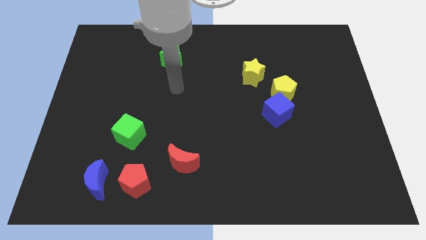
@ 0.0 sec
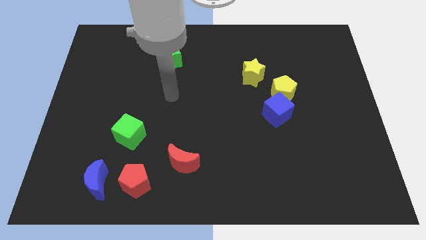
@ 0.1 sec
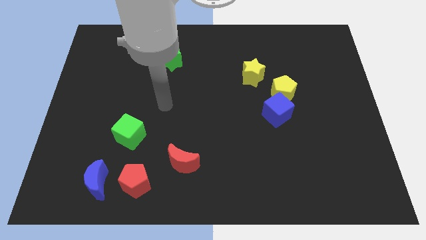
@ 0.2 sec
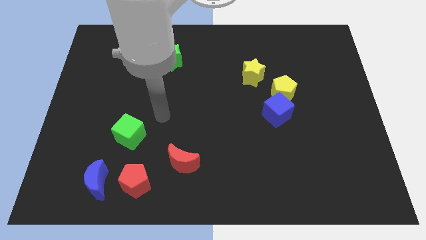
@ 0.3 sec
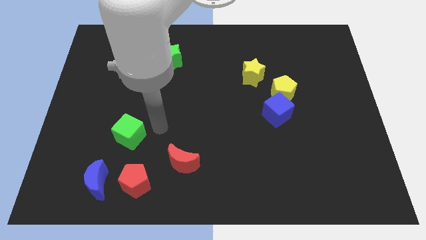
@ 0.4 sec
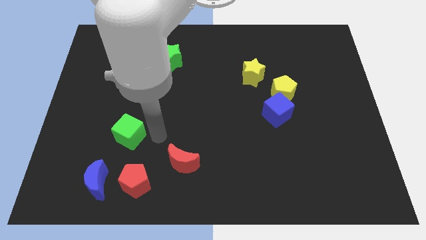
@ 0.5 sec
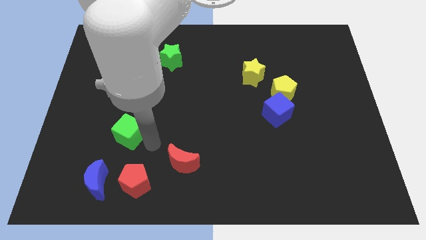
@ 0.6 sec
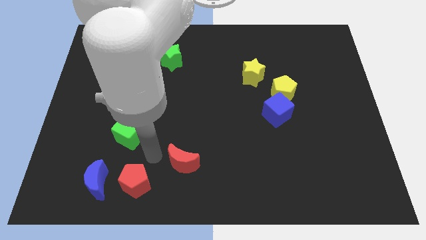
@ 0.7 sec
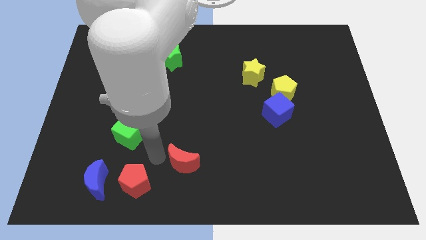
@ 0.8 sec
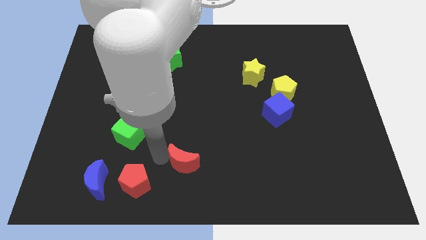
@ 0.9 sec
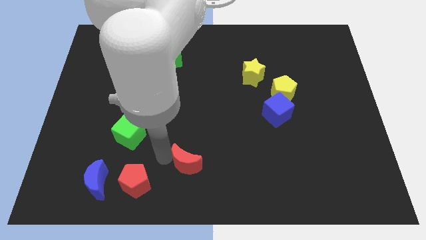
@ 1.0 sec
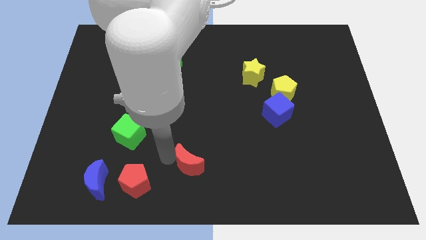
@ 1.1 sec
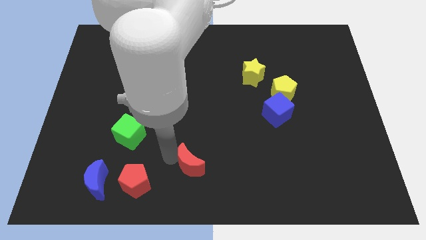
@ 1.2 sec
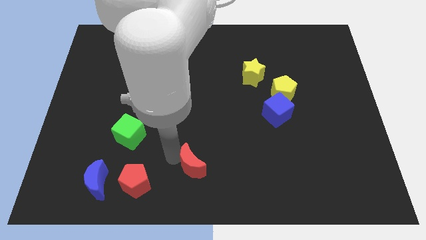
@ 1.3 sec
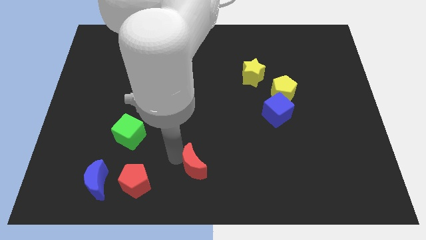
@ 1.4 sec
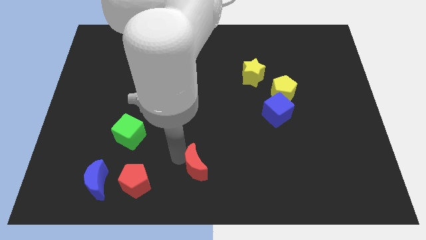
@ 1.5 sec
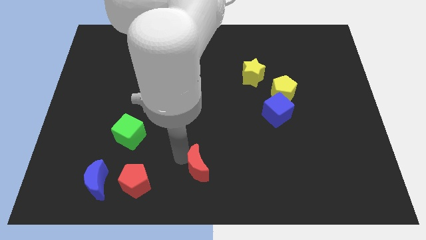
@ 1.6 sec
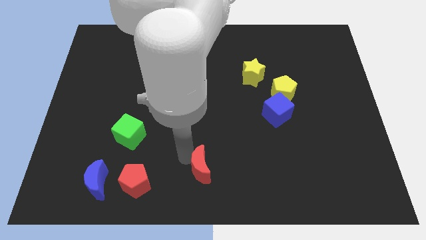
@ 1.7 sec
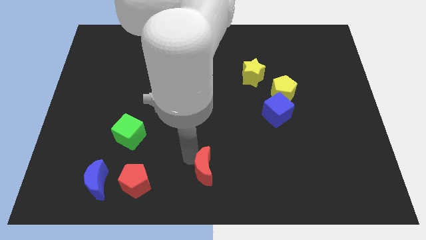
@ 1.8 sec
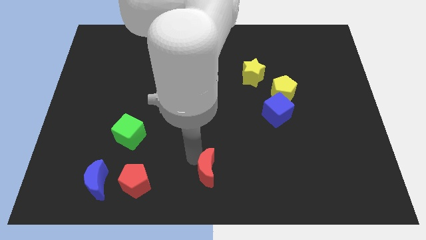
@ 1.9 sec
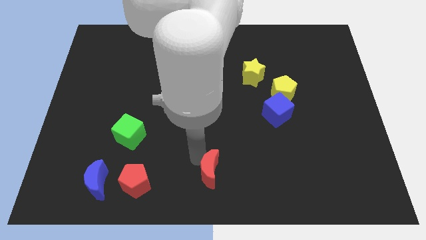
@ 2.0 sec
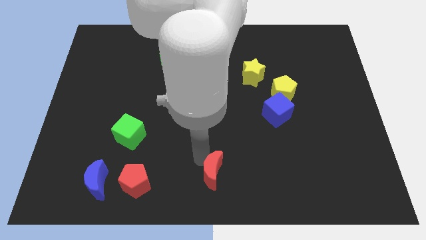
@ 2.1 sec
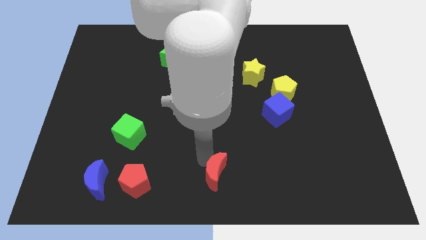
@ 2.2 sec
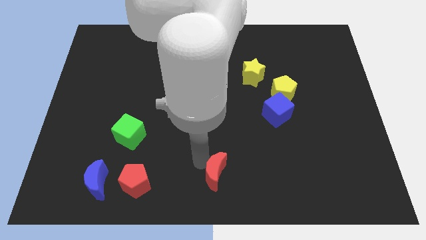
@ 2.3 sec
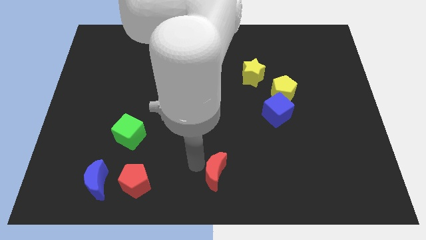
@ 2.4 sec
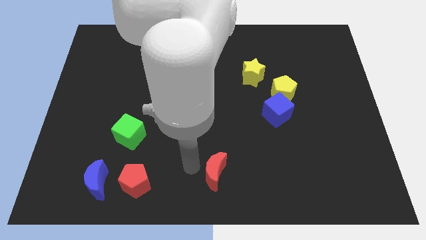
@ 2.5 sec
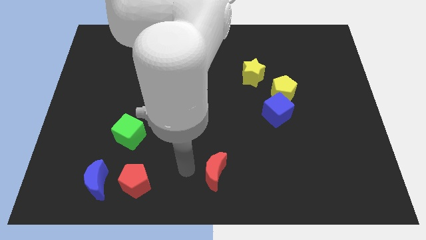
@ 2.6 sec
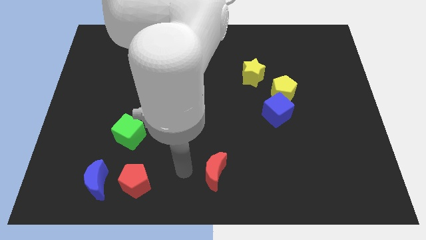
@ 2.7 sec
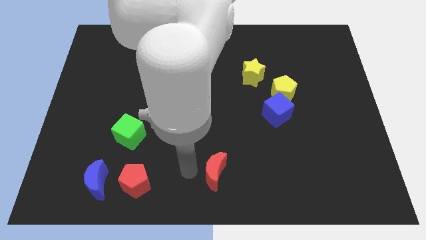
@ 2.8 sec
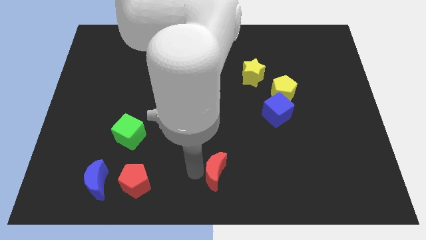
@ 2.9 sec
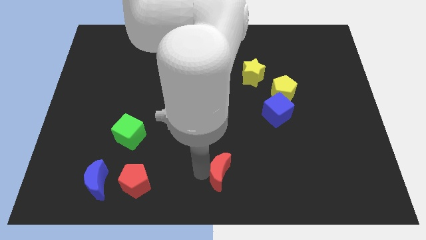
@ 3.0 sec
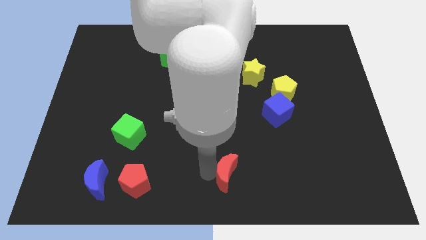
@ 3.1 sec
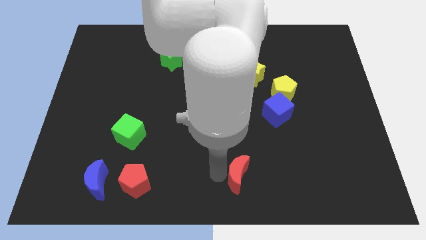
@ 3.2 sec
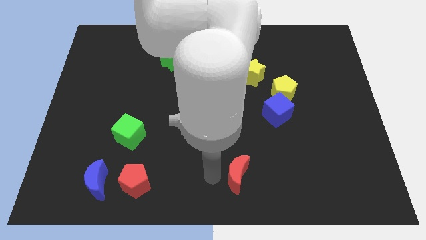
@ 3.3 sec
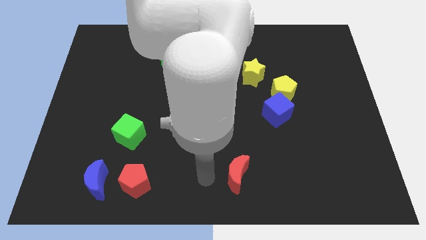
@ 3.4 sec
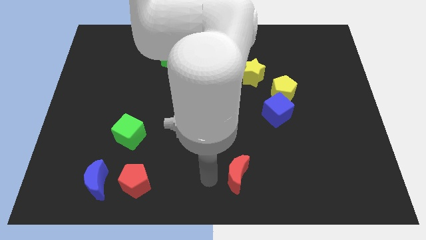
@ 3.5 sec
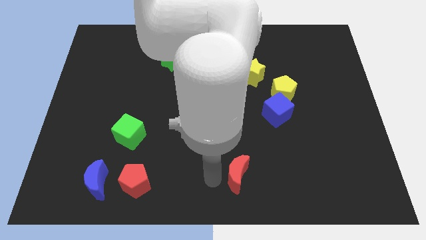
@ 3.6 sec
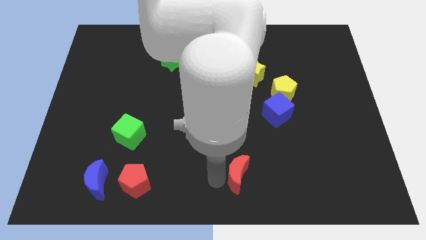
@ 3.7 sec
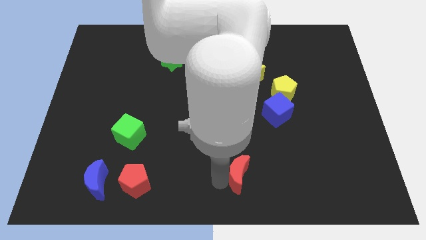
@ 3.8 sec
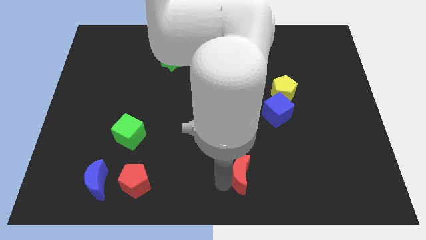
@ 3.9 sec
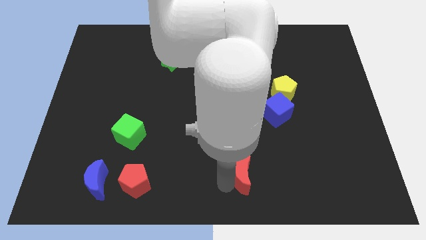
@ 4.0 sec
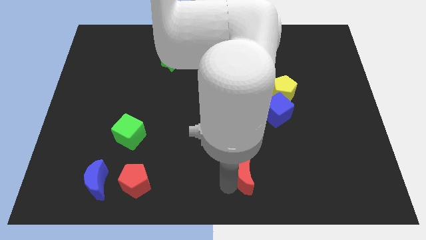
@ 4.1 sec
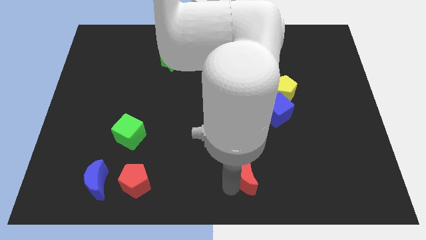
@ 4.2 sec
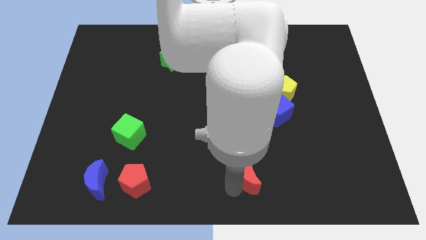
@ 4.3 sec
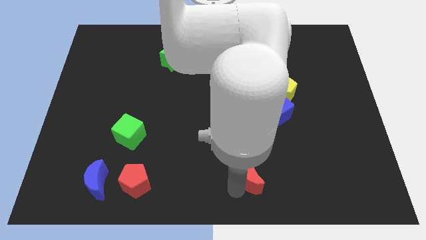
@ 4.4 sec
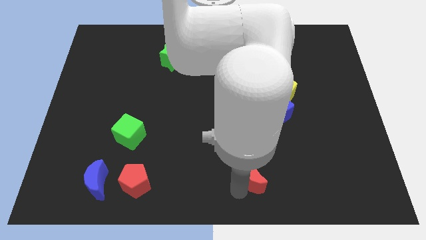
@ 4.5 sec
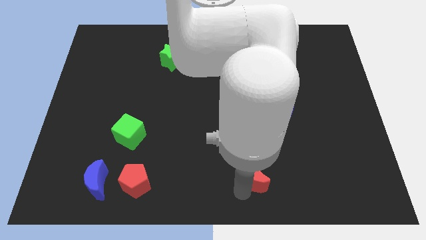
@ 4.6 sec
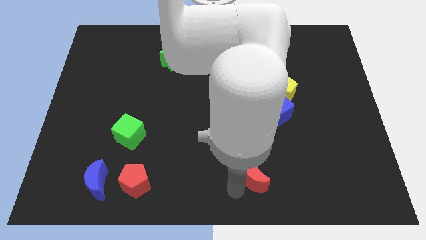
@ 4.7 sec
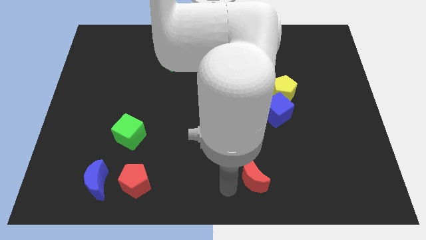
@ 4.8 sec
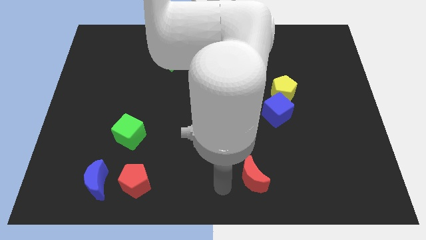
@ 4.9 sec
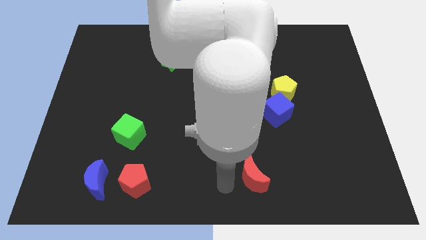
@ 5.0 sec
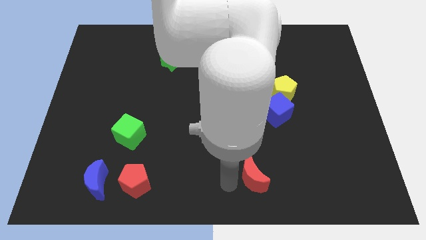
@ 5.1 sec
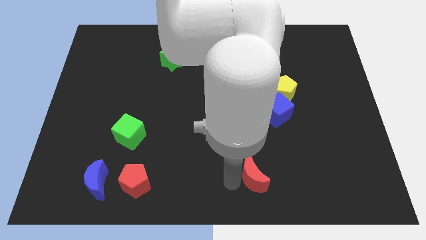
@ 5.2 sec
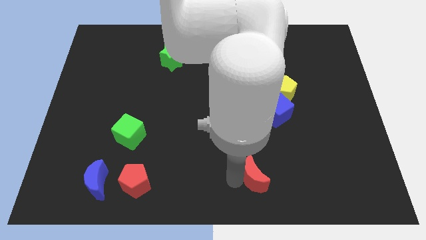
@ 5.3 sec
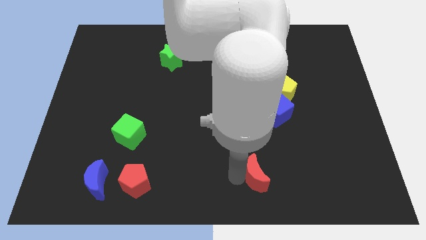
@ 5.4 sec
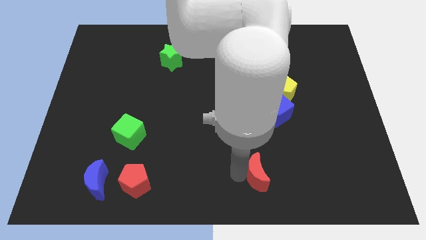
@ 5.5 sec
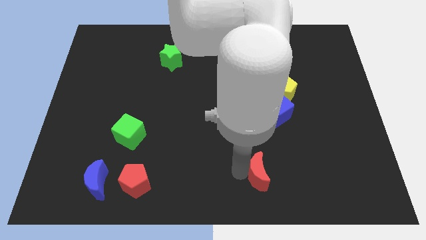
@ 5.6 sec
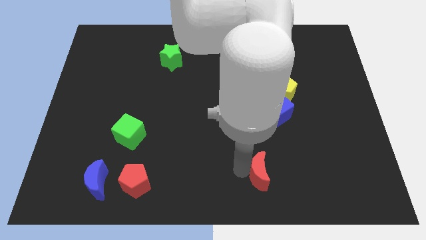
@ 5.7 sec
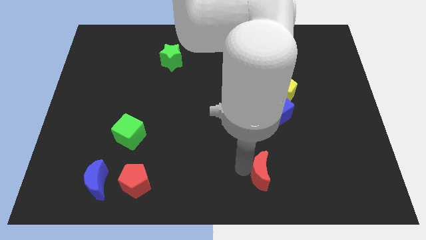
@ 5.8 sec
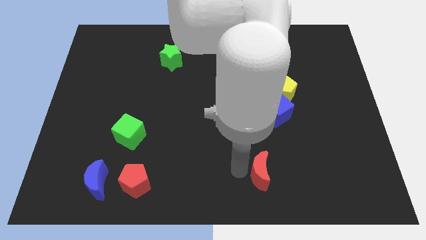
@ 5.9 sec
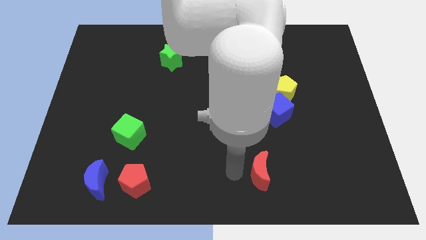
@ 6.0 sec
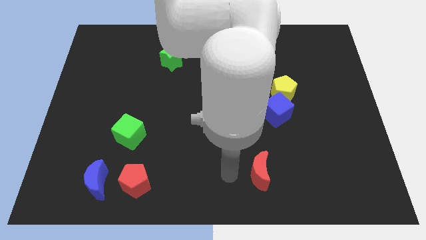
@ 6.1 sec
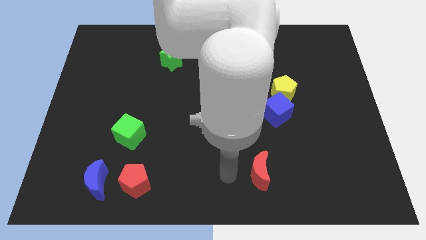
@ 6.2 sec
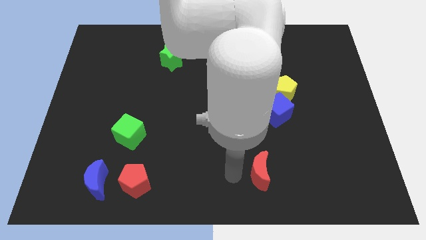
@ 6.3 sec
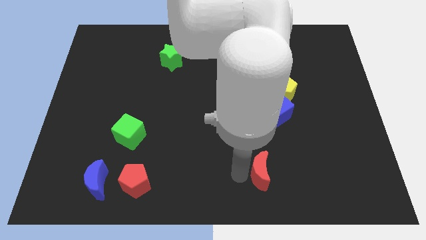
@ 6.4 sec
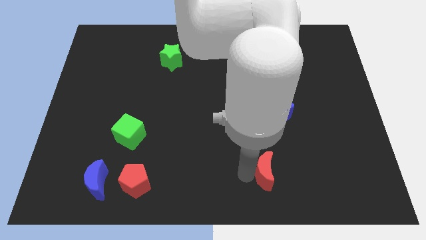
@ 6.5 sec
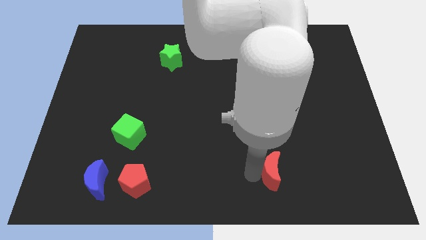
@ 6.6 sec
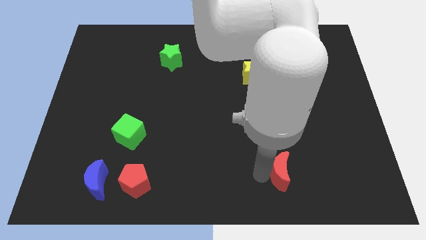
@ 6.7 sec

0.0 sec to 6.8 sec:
move the red moon to the right

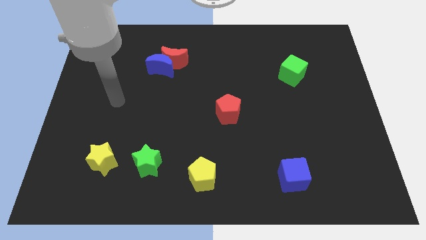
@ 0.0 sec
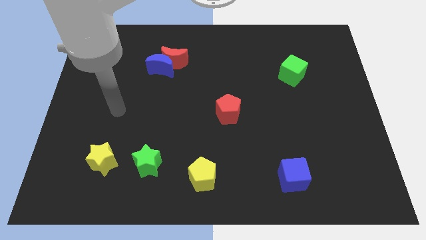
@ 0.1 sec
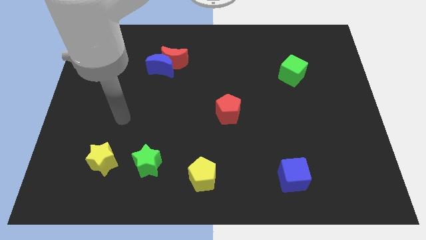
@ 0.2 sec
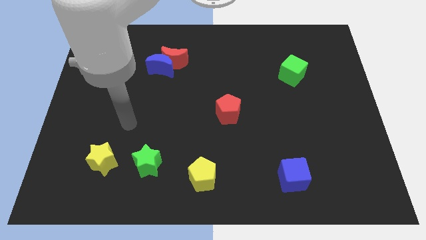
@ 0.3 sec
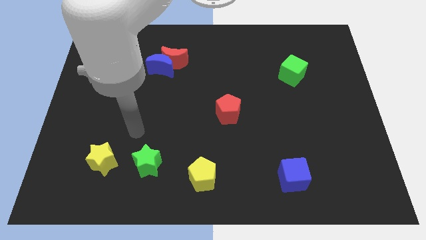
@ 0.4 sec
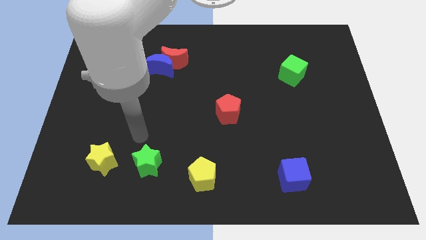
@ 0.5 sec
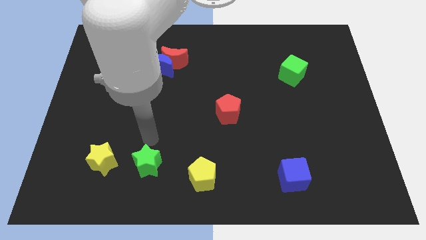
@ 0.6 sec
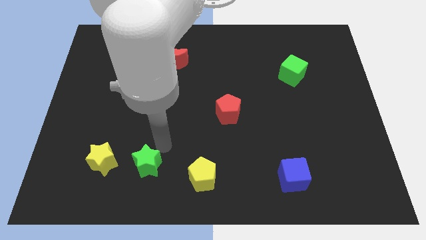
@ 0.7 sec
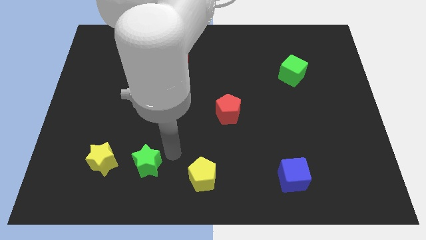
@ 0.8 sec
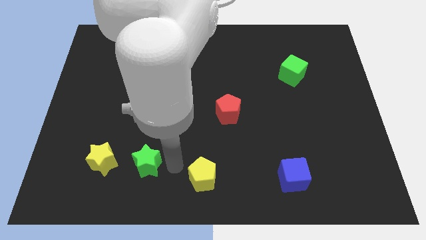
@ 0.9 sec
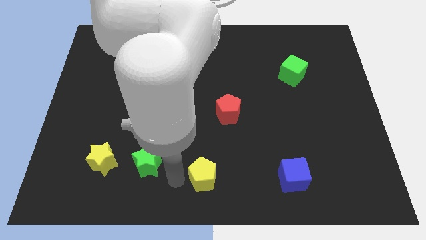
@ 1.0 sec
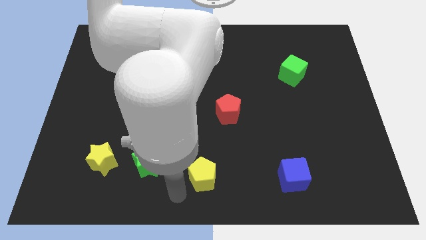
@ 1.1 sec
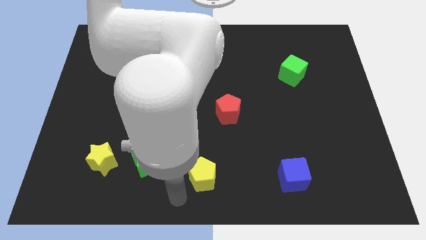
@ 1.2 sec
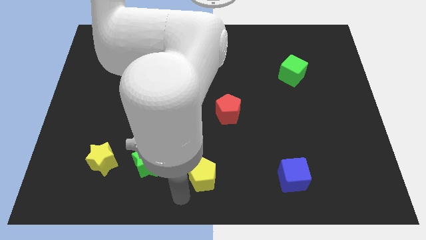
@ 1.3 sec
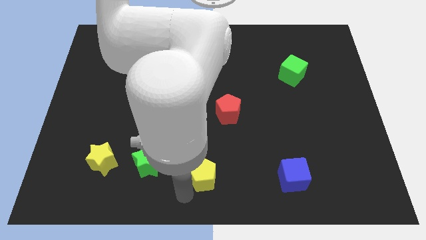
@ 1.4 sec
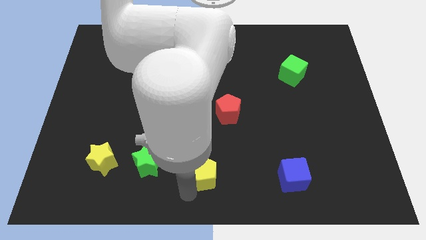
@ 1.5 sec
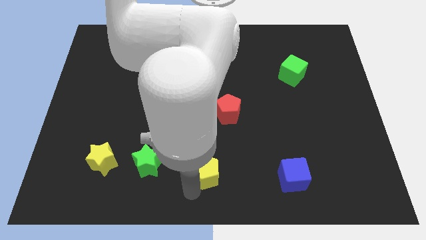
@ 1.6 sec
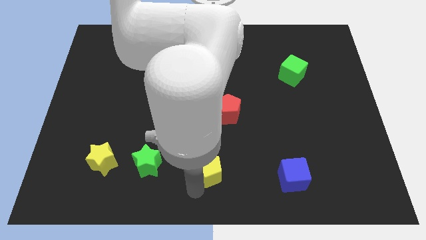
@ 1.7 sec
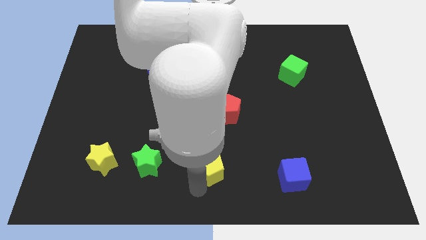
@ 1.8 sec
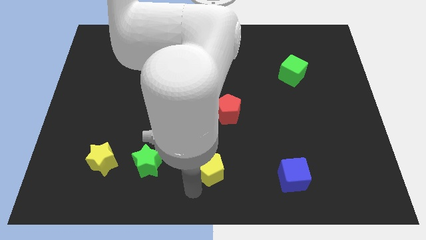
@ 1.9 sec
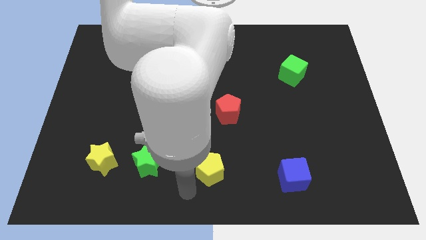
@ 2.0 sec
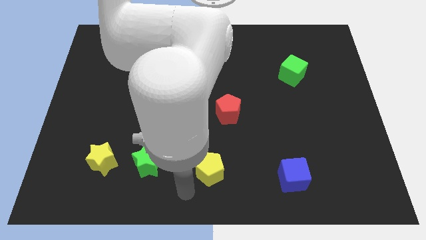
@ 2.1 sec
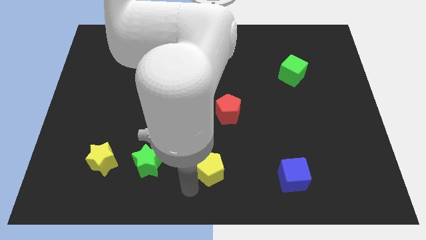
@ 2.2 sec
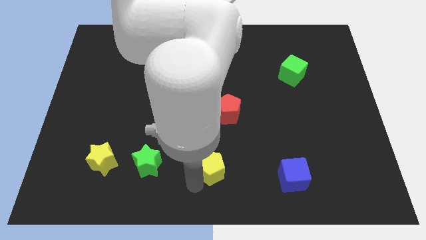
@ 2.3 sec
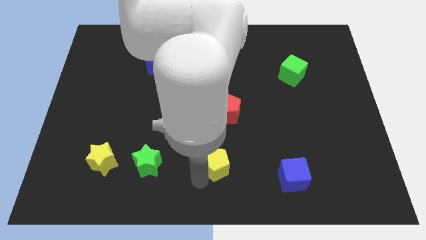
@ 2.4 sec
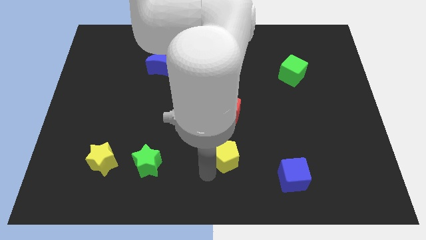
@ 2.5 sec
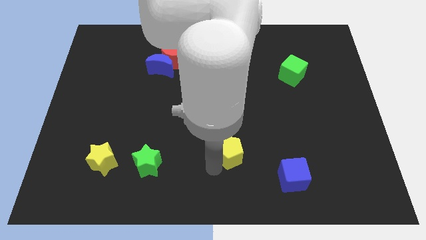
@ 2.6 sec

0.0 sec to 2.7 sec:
slide the yellow pentagon slightly up and right diagonally
